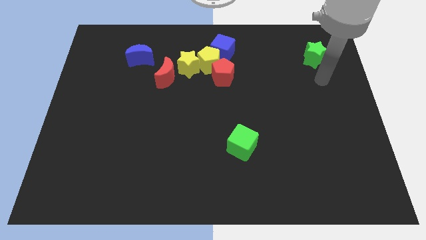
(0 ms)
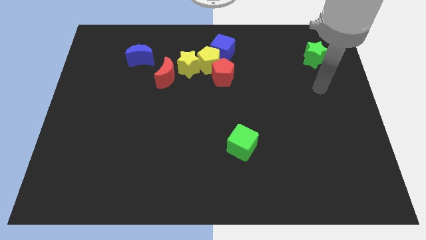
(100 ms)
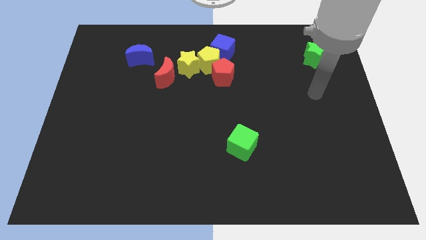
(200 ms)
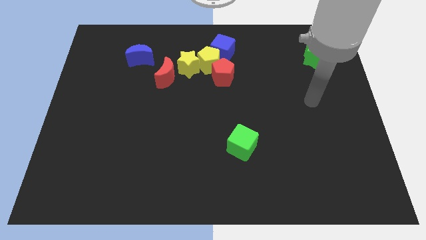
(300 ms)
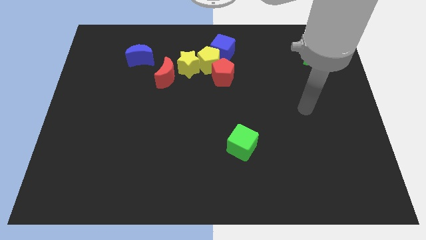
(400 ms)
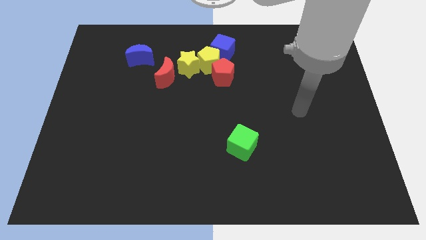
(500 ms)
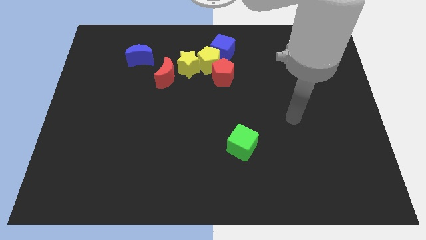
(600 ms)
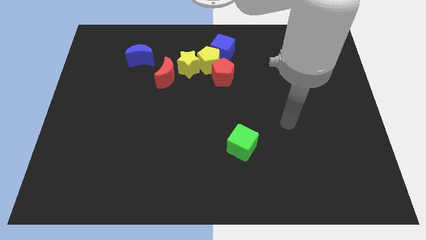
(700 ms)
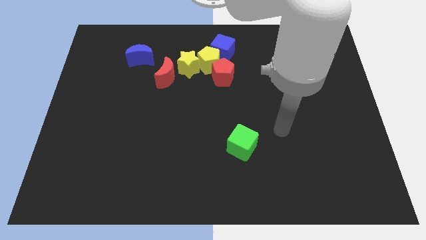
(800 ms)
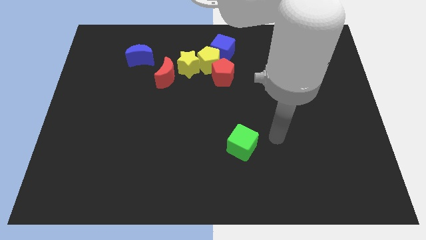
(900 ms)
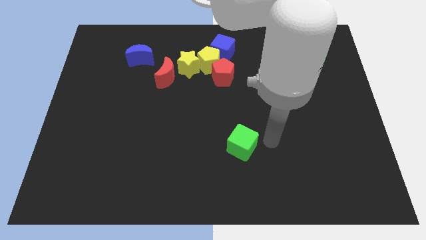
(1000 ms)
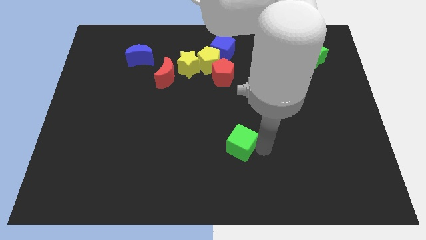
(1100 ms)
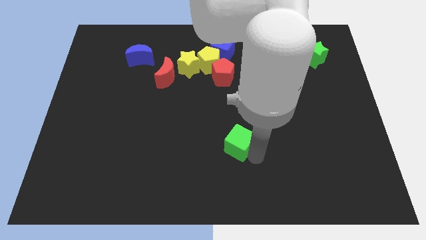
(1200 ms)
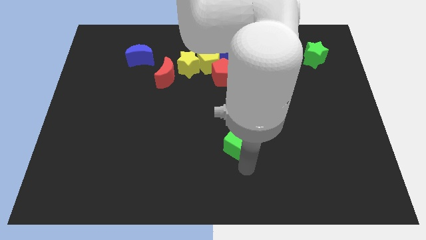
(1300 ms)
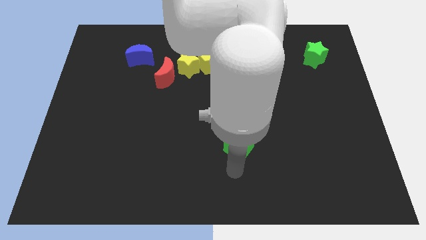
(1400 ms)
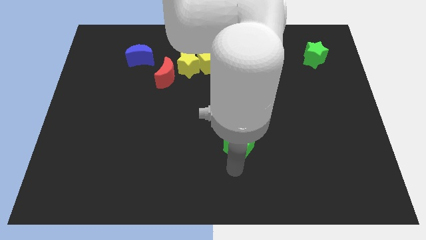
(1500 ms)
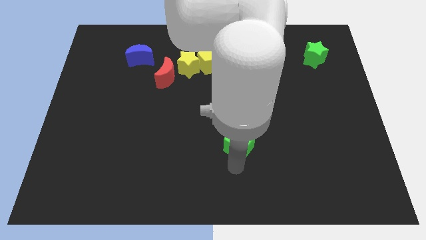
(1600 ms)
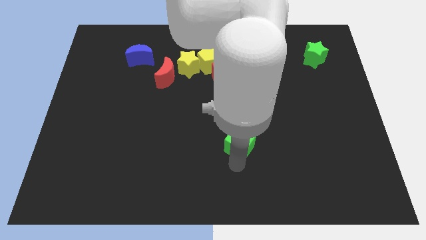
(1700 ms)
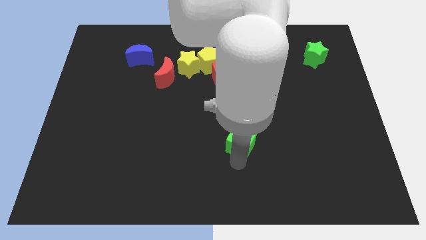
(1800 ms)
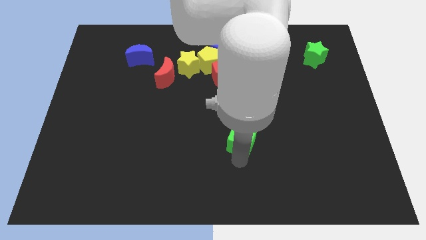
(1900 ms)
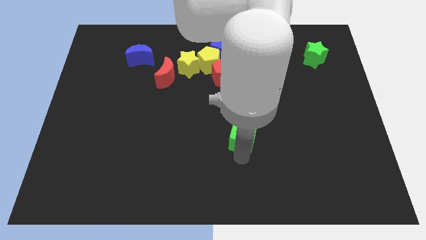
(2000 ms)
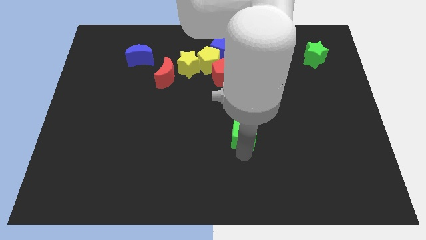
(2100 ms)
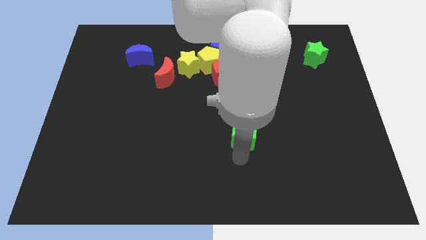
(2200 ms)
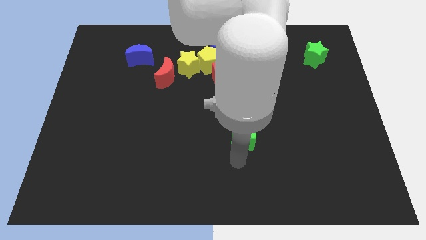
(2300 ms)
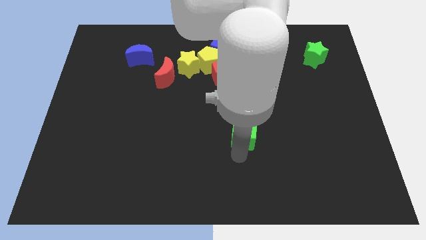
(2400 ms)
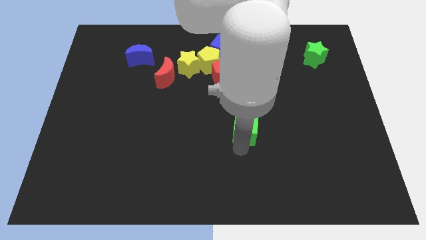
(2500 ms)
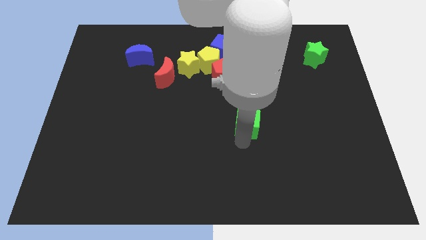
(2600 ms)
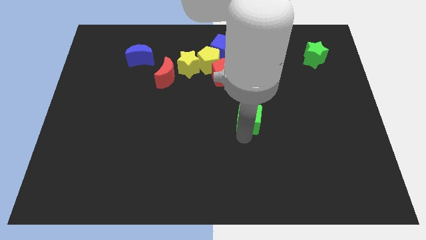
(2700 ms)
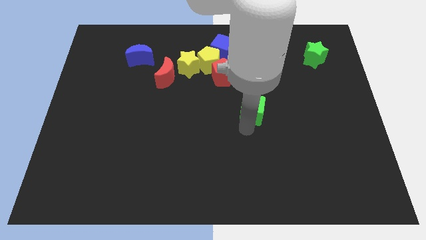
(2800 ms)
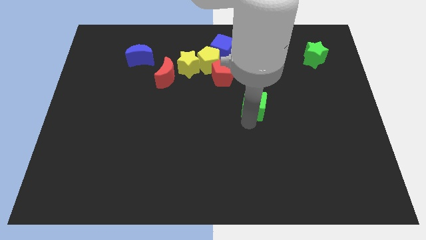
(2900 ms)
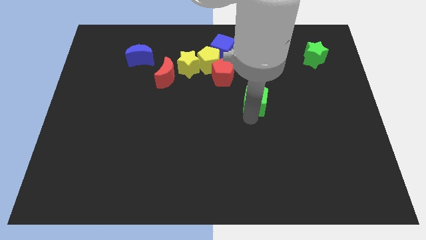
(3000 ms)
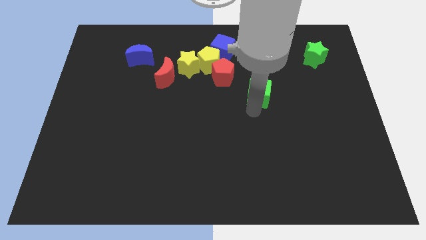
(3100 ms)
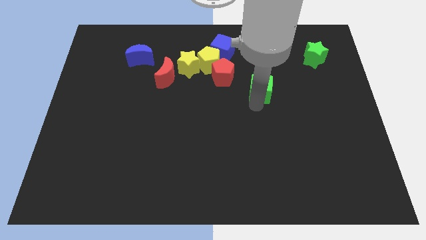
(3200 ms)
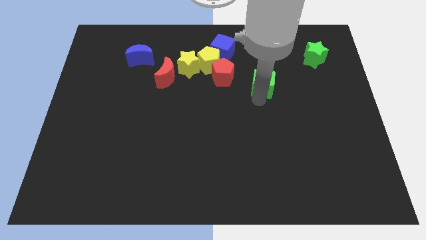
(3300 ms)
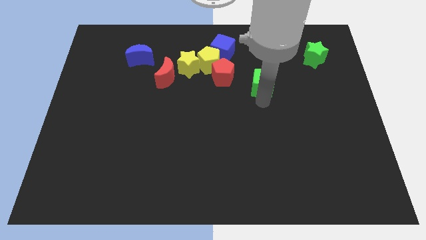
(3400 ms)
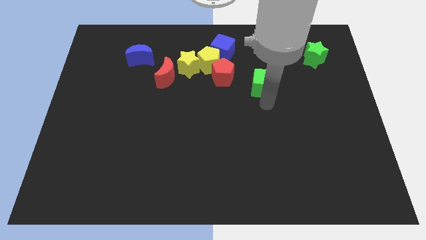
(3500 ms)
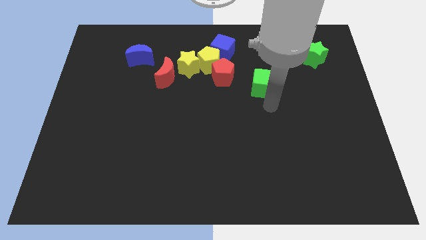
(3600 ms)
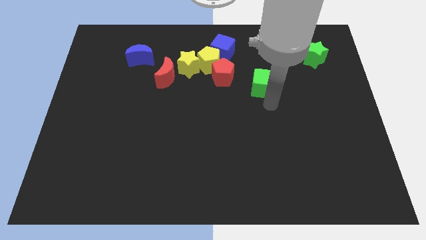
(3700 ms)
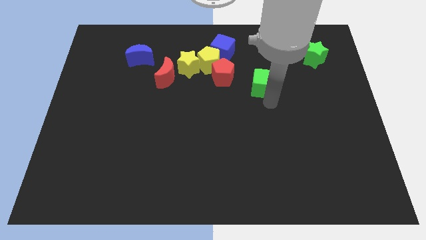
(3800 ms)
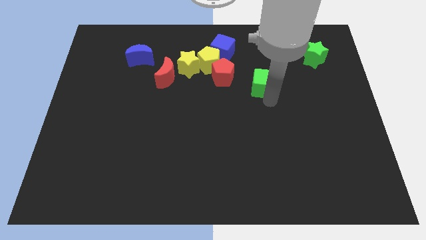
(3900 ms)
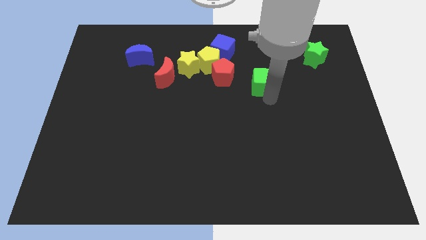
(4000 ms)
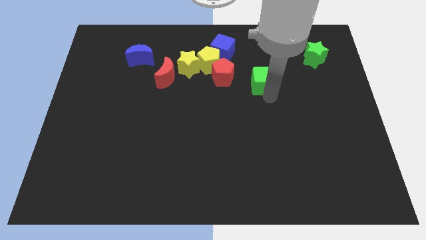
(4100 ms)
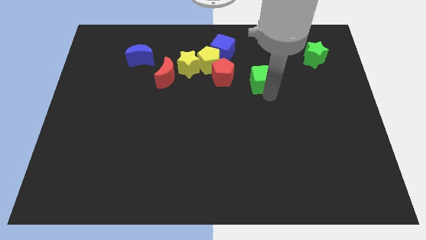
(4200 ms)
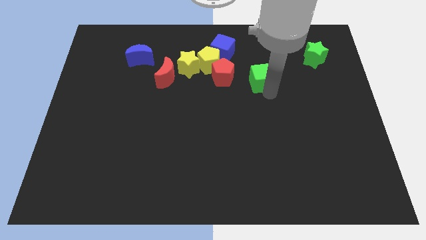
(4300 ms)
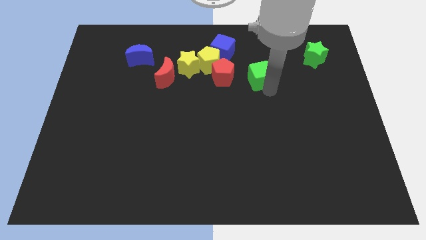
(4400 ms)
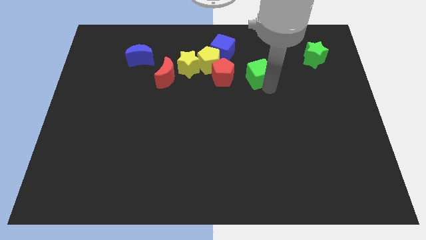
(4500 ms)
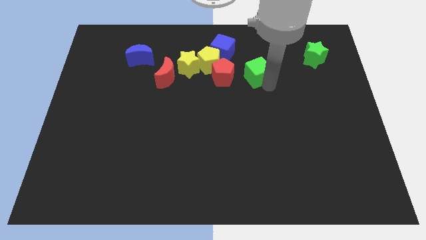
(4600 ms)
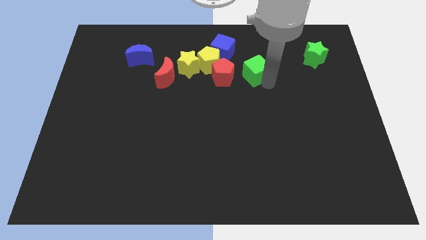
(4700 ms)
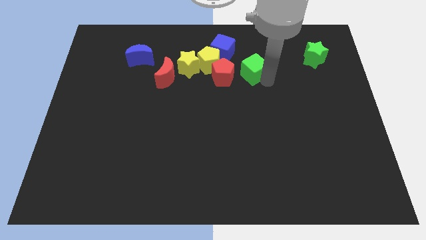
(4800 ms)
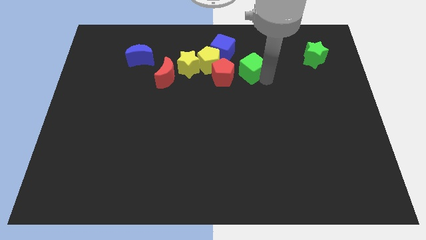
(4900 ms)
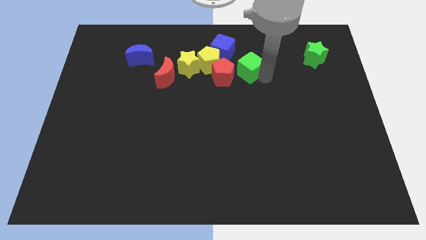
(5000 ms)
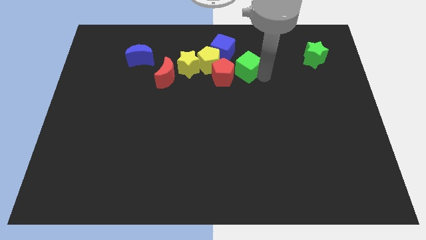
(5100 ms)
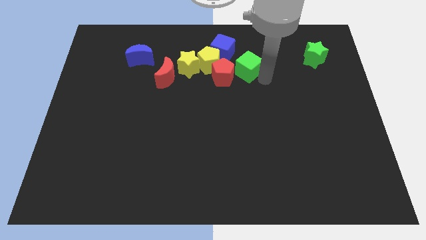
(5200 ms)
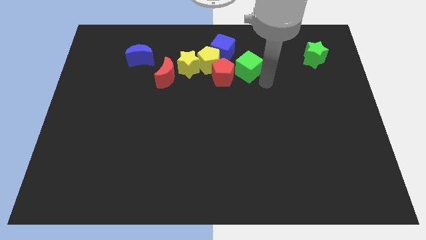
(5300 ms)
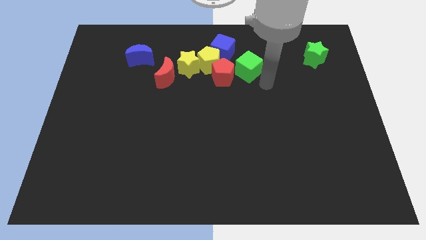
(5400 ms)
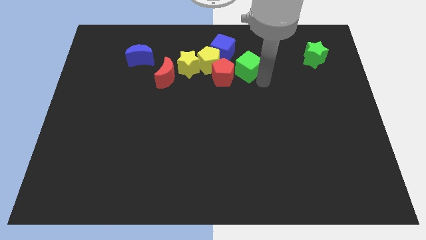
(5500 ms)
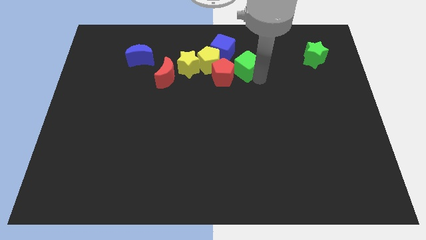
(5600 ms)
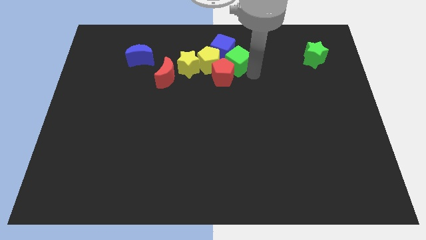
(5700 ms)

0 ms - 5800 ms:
slide the green cube close to the blue cube

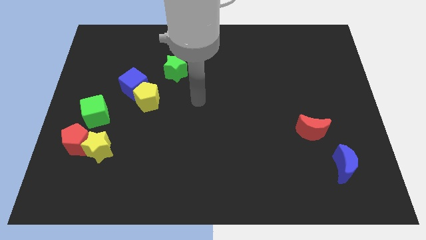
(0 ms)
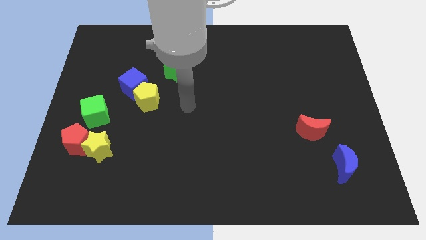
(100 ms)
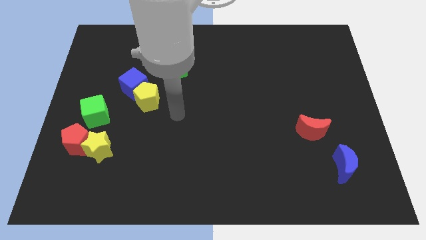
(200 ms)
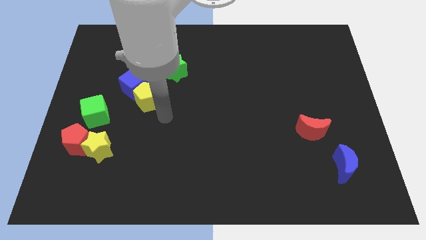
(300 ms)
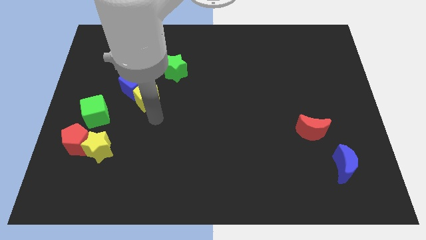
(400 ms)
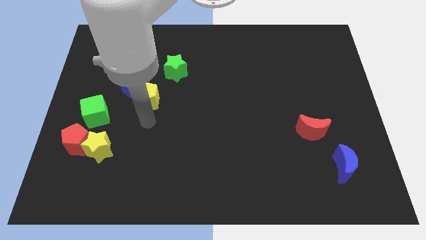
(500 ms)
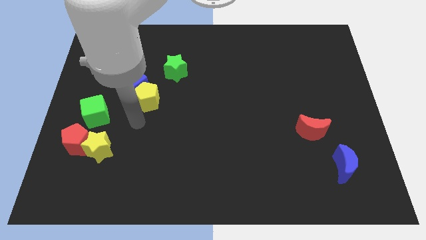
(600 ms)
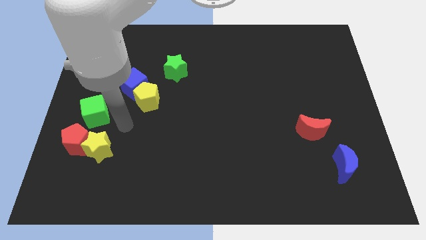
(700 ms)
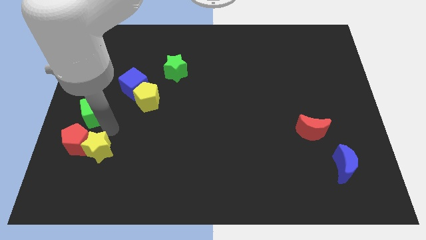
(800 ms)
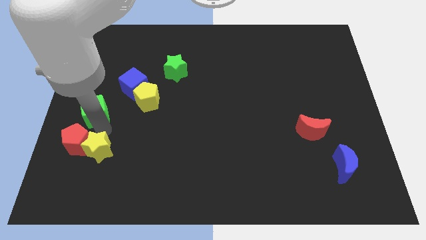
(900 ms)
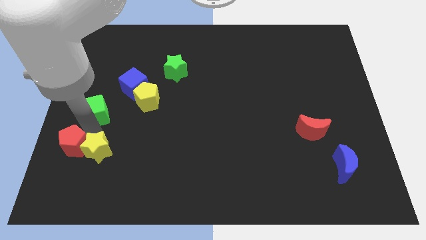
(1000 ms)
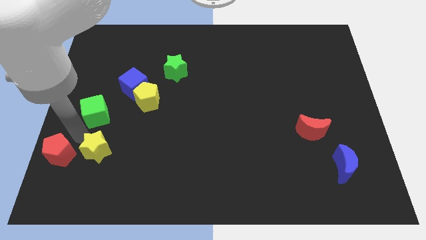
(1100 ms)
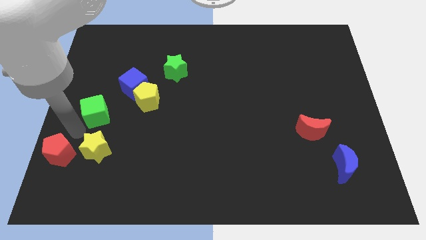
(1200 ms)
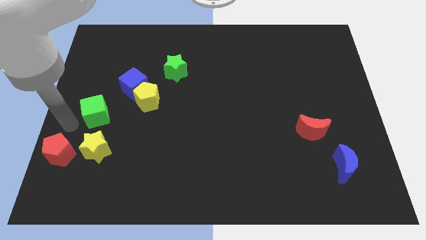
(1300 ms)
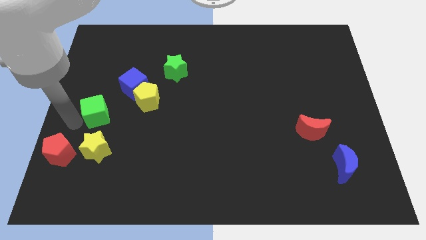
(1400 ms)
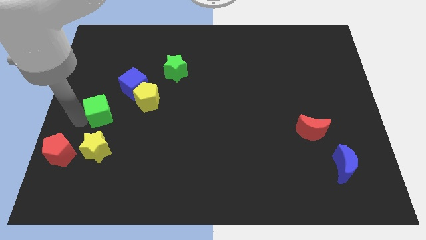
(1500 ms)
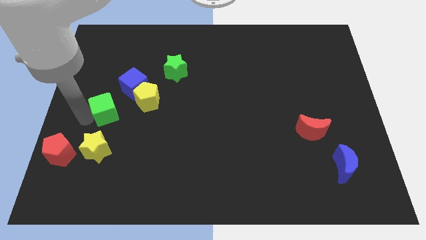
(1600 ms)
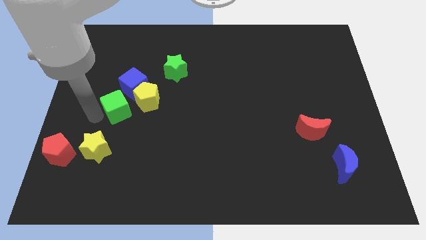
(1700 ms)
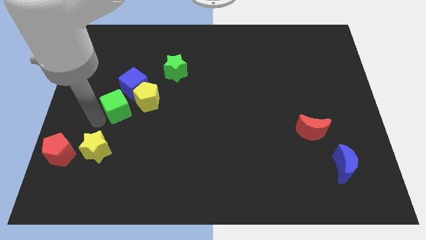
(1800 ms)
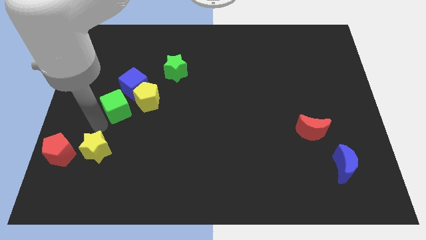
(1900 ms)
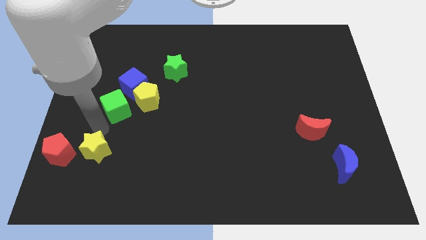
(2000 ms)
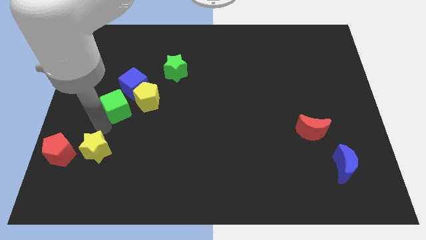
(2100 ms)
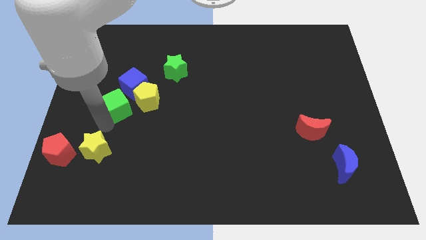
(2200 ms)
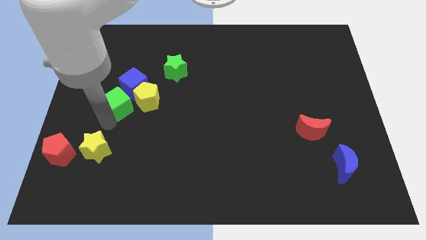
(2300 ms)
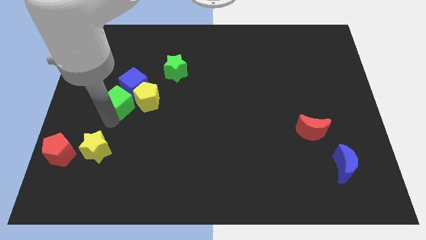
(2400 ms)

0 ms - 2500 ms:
put the green cube towards the blue cube

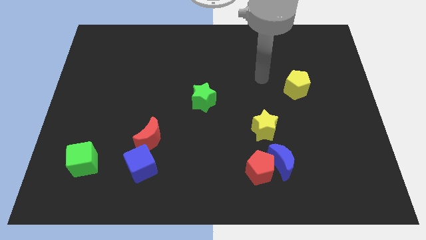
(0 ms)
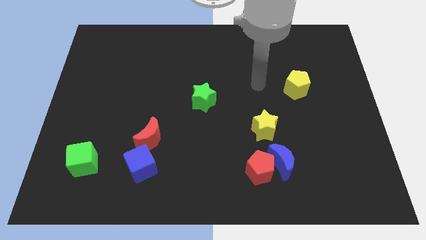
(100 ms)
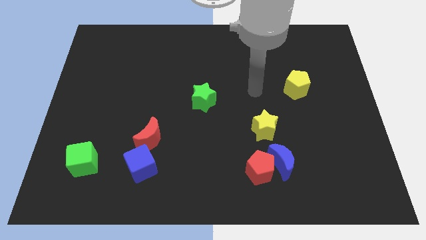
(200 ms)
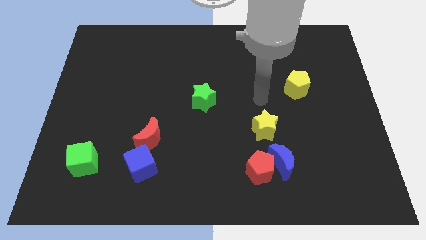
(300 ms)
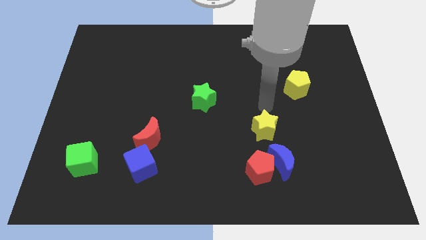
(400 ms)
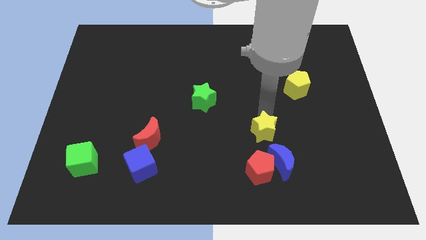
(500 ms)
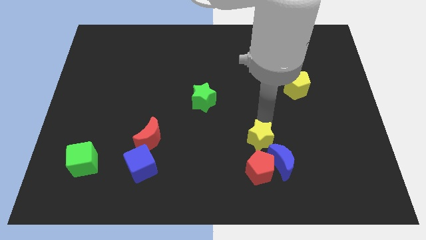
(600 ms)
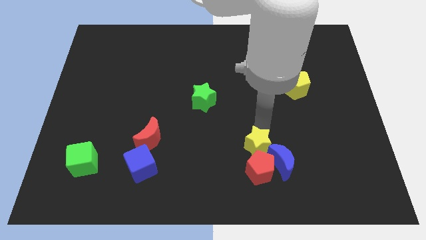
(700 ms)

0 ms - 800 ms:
slide the yellow star towards the red pentagon
